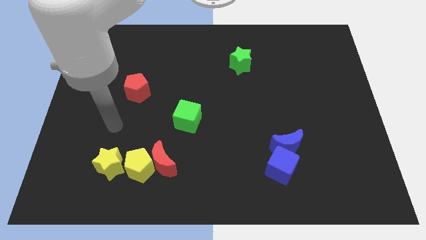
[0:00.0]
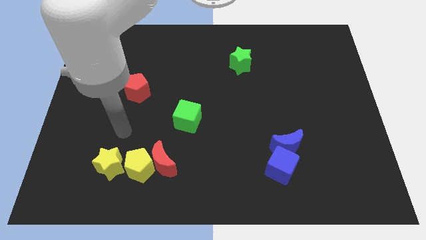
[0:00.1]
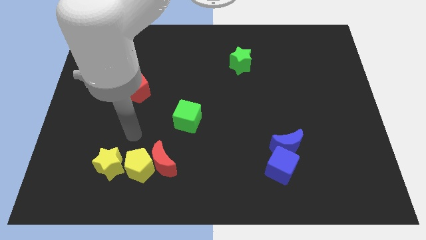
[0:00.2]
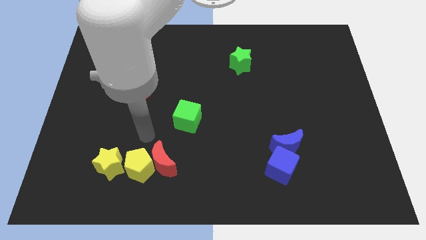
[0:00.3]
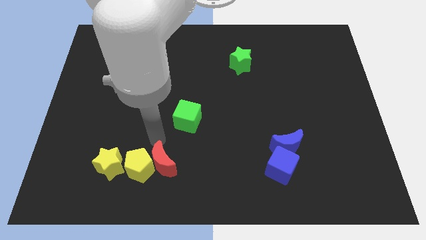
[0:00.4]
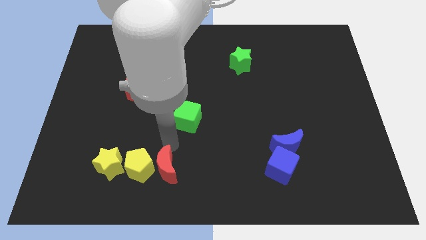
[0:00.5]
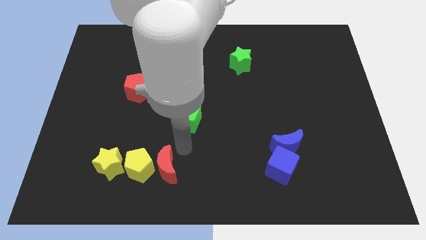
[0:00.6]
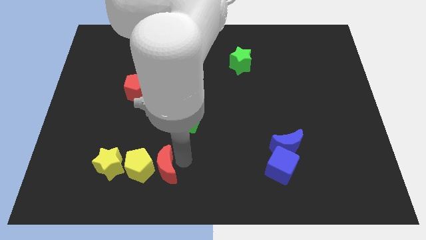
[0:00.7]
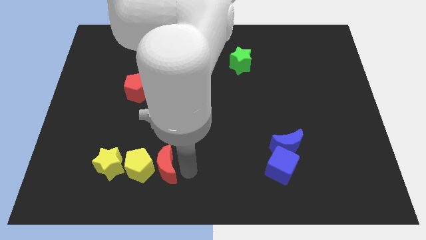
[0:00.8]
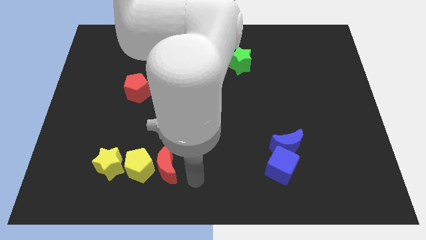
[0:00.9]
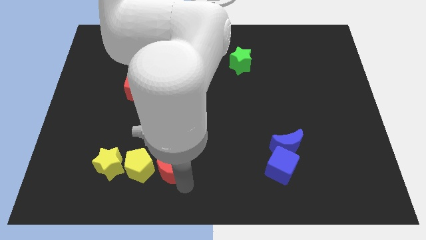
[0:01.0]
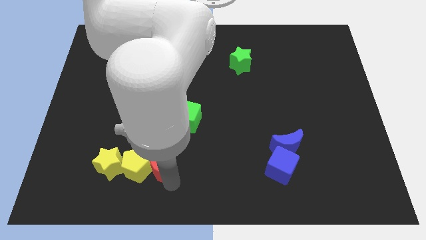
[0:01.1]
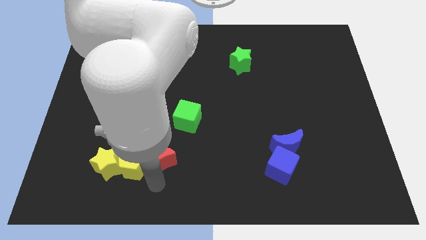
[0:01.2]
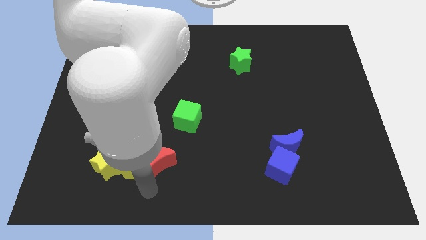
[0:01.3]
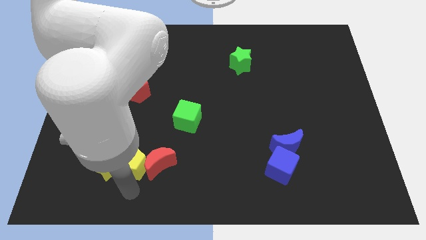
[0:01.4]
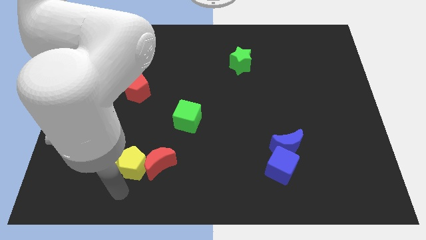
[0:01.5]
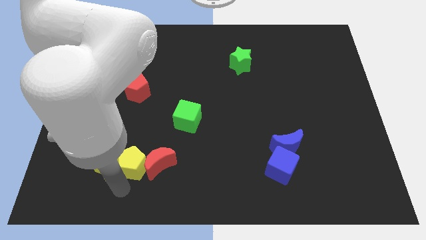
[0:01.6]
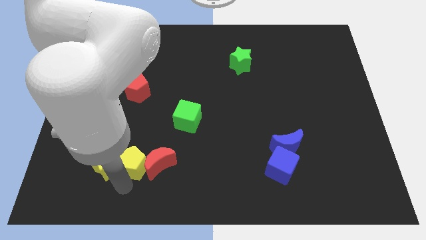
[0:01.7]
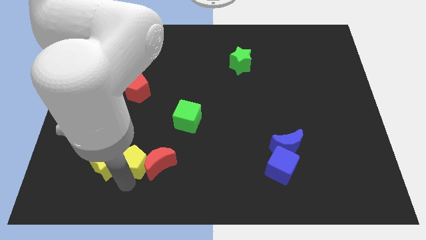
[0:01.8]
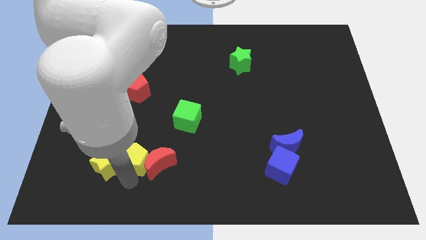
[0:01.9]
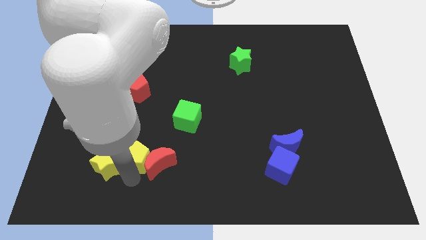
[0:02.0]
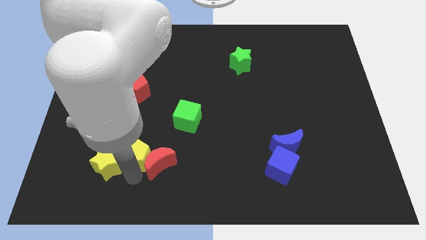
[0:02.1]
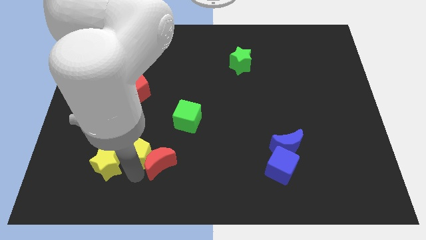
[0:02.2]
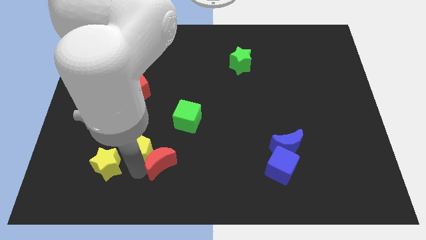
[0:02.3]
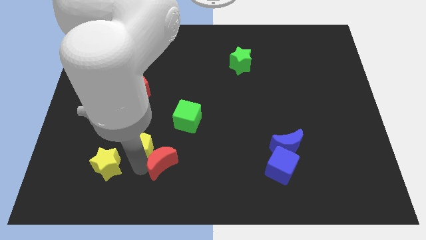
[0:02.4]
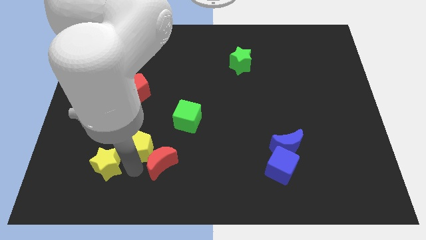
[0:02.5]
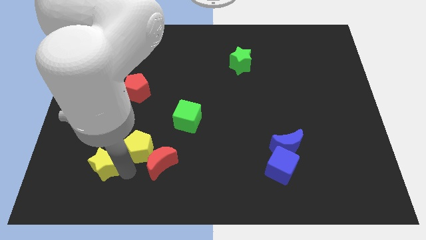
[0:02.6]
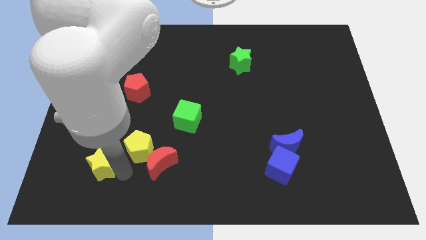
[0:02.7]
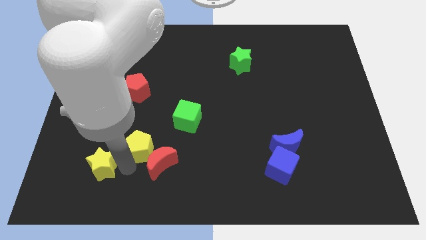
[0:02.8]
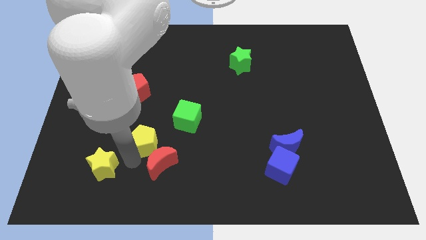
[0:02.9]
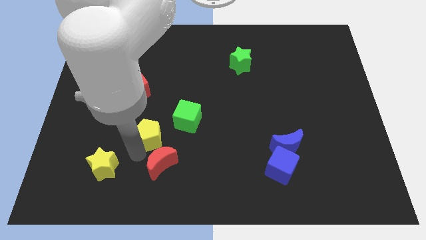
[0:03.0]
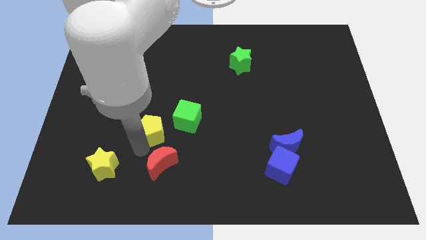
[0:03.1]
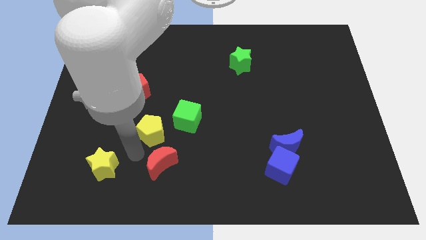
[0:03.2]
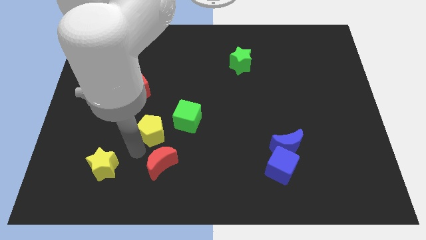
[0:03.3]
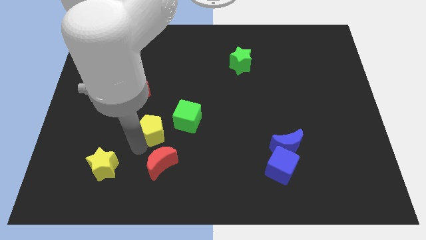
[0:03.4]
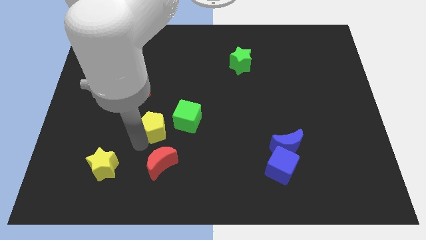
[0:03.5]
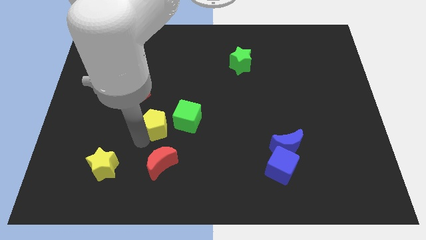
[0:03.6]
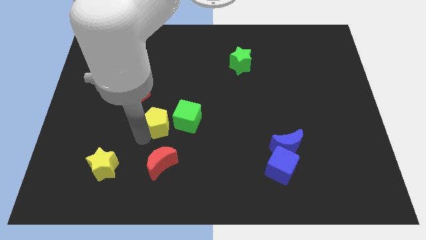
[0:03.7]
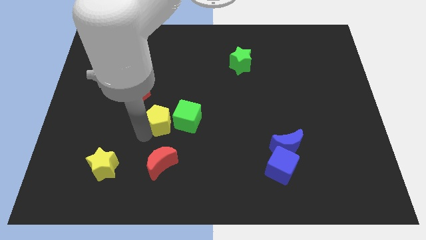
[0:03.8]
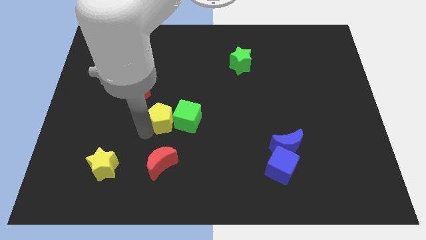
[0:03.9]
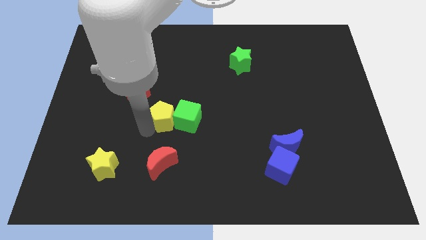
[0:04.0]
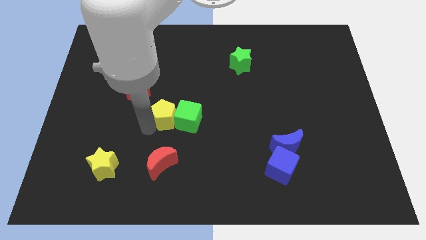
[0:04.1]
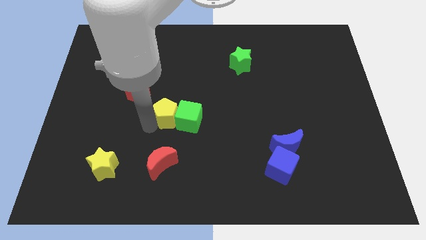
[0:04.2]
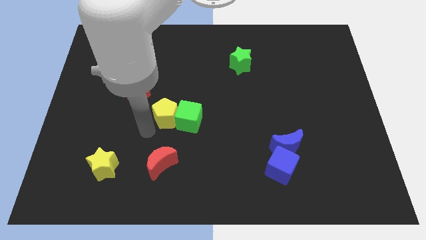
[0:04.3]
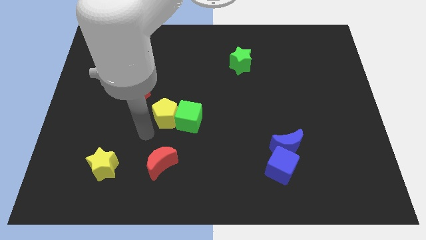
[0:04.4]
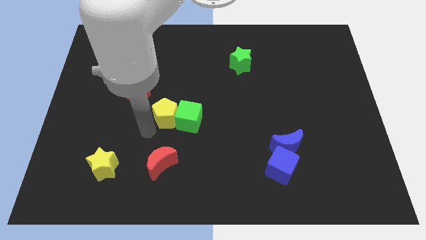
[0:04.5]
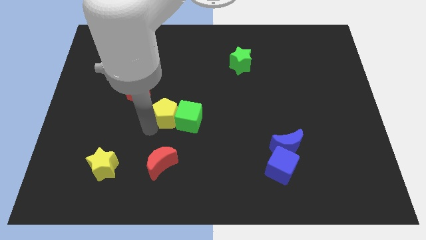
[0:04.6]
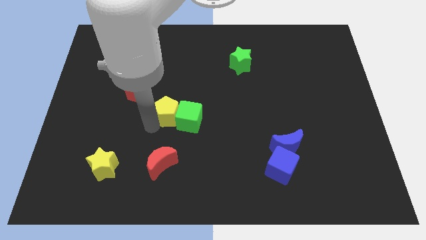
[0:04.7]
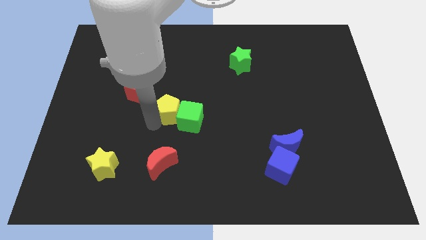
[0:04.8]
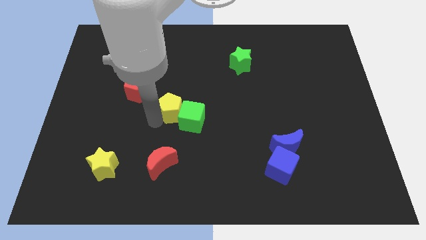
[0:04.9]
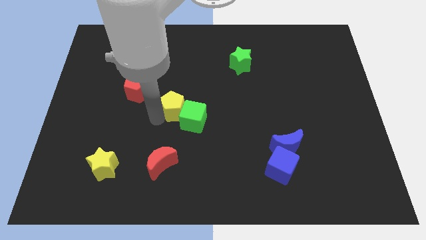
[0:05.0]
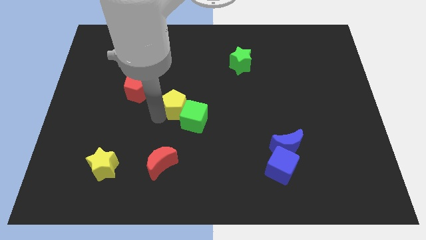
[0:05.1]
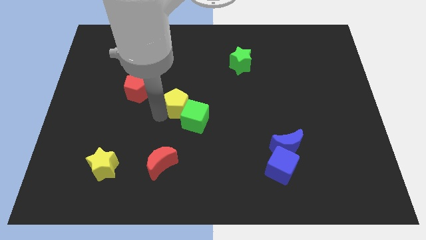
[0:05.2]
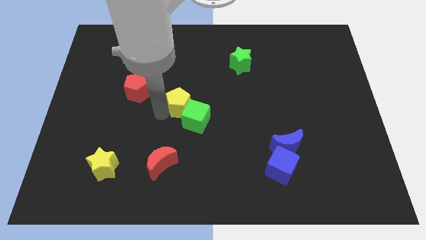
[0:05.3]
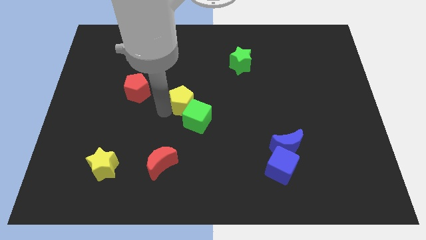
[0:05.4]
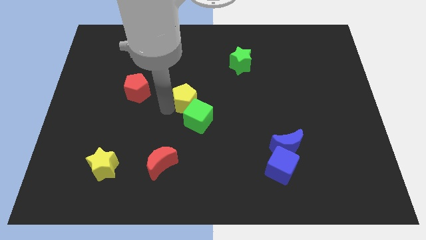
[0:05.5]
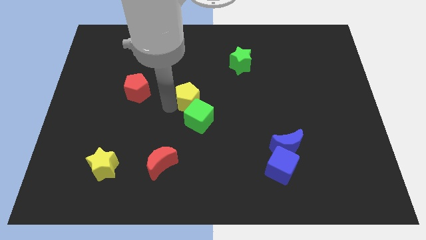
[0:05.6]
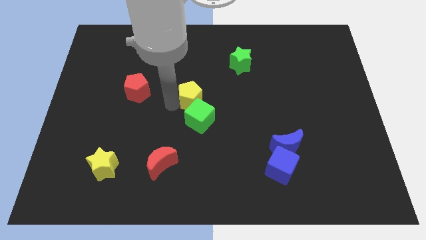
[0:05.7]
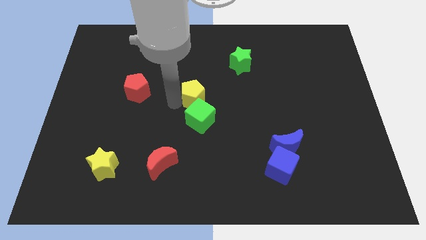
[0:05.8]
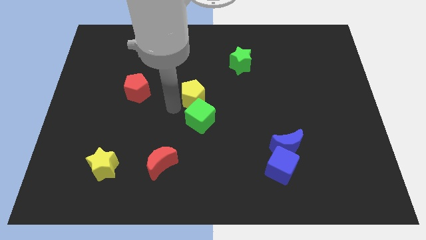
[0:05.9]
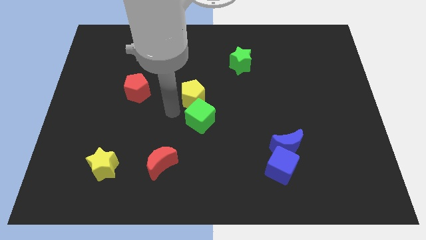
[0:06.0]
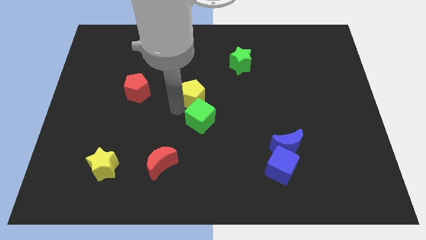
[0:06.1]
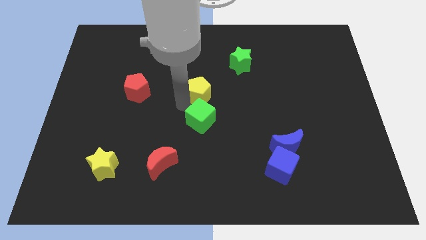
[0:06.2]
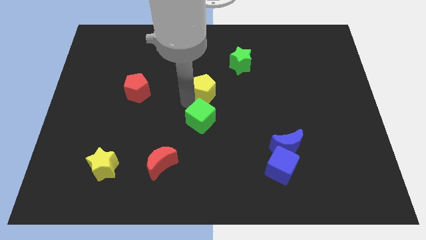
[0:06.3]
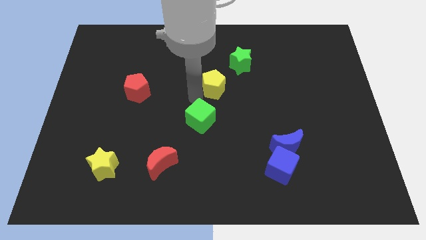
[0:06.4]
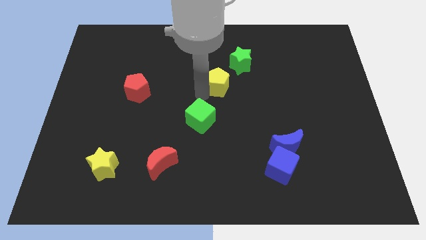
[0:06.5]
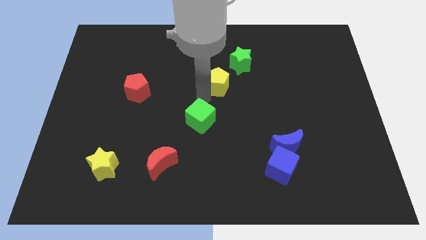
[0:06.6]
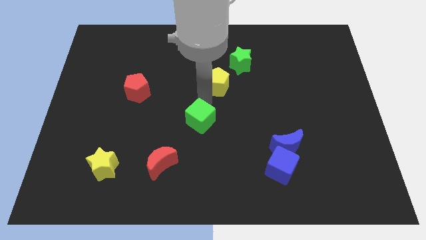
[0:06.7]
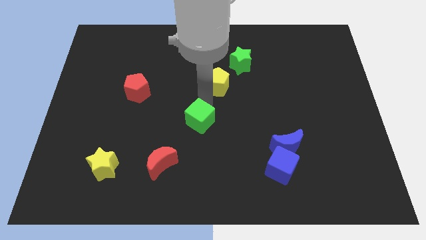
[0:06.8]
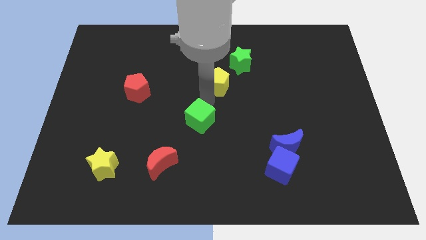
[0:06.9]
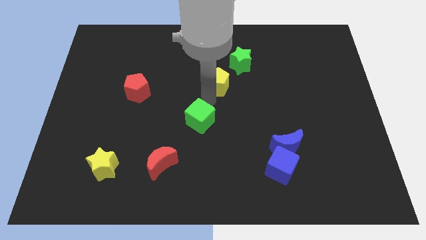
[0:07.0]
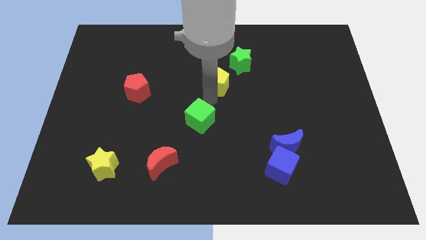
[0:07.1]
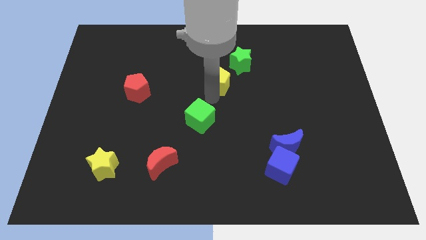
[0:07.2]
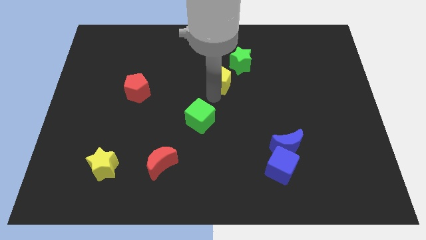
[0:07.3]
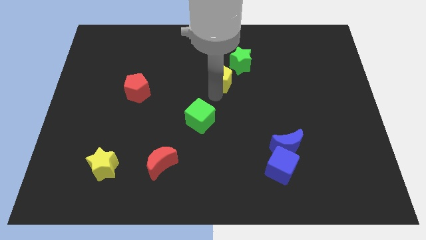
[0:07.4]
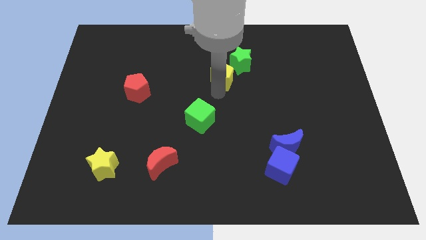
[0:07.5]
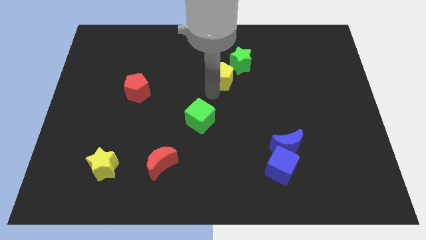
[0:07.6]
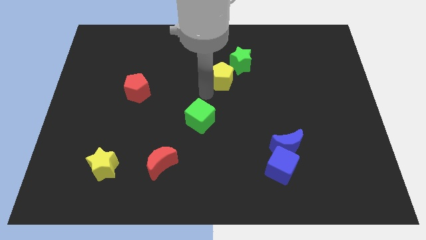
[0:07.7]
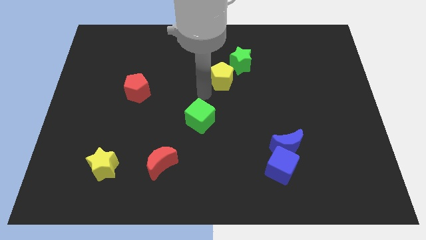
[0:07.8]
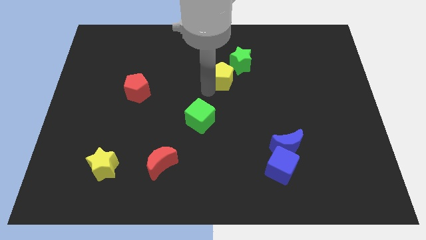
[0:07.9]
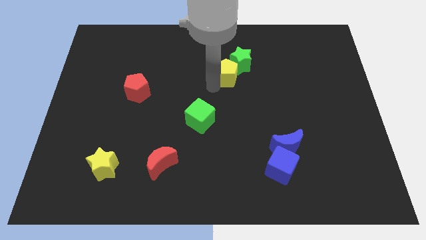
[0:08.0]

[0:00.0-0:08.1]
put the yellow pentagon next to the green star
